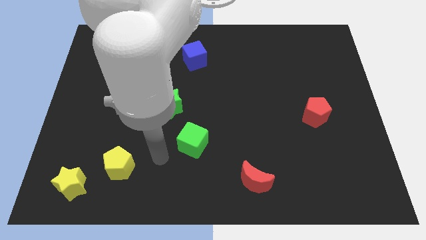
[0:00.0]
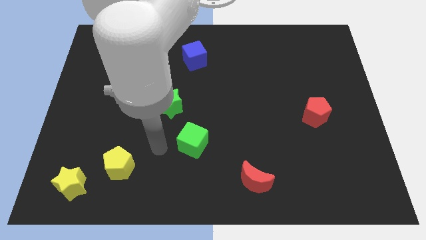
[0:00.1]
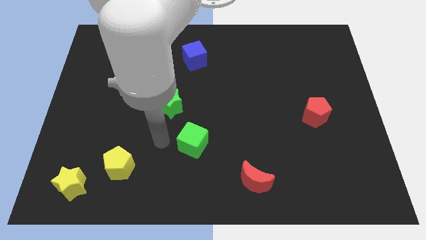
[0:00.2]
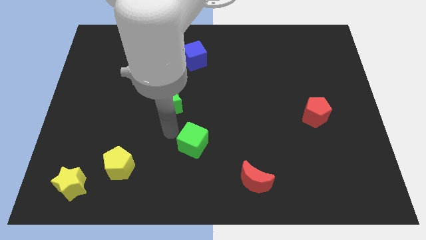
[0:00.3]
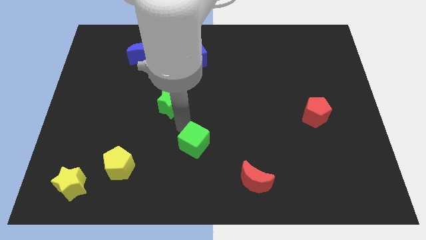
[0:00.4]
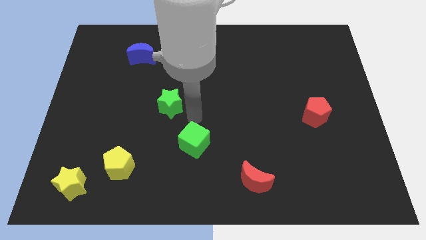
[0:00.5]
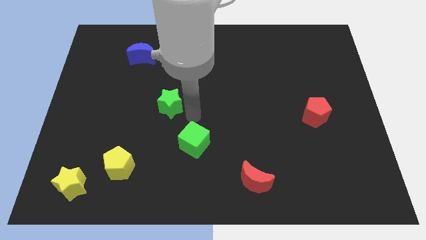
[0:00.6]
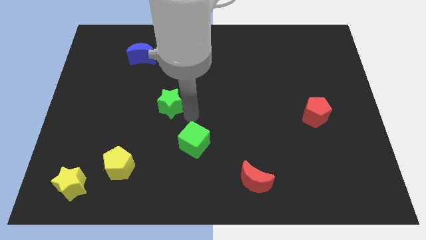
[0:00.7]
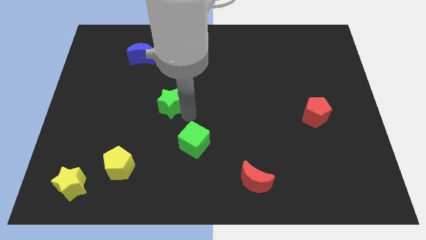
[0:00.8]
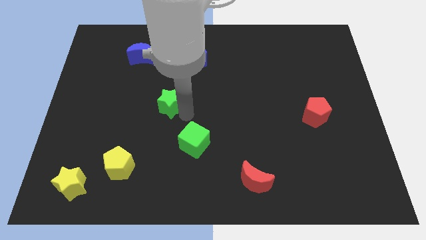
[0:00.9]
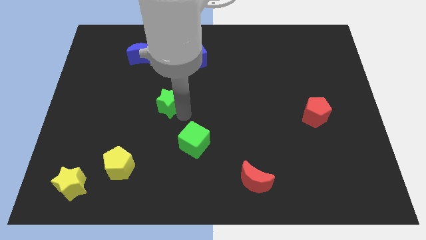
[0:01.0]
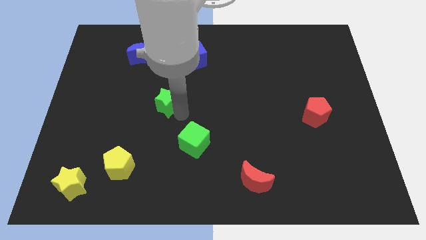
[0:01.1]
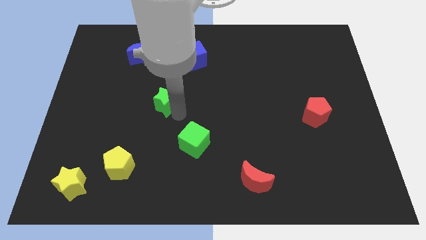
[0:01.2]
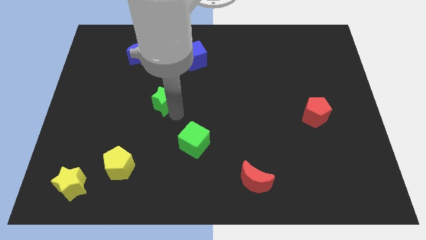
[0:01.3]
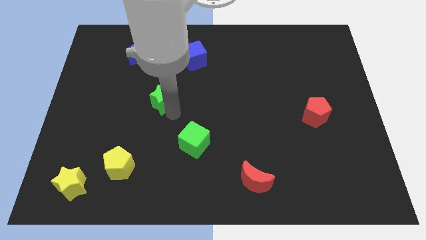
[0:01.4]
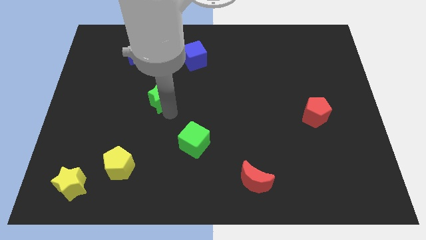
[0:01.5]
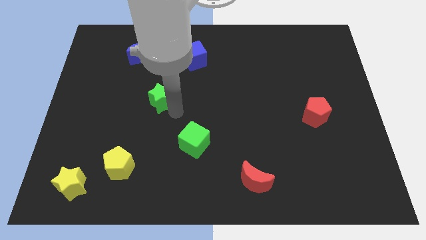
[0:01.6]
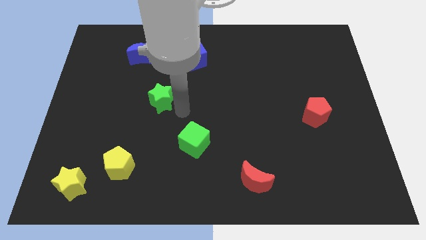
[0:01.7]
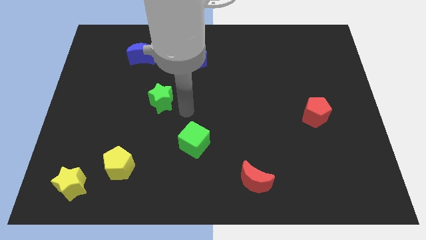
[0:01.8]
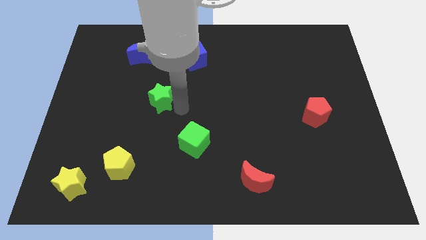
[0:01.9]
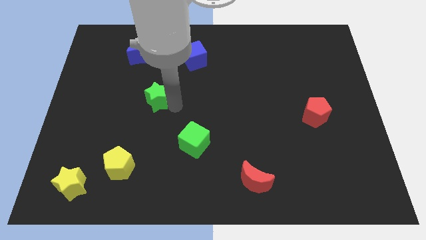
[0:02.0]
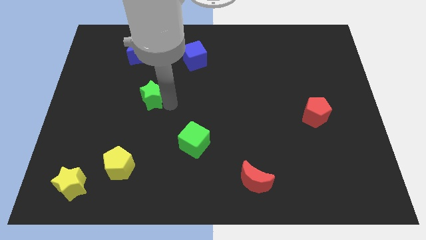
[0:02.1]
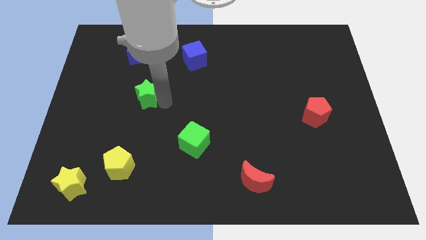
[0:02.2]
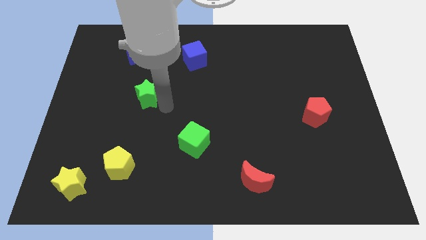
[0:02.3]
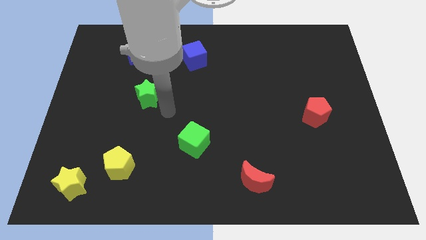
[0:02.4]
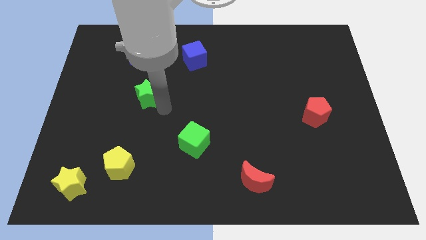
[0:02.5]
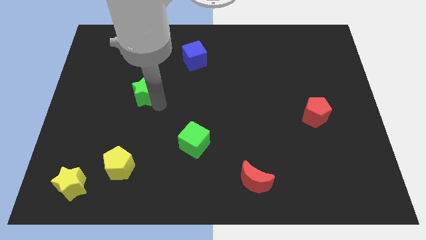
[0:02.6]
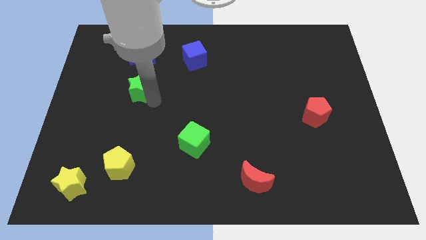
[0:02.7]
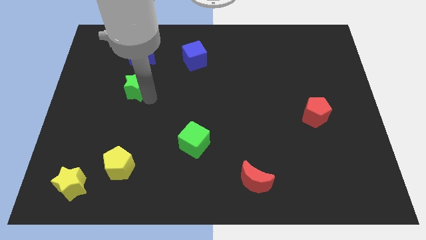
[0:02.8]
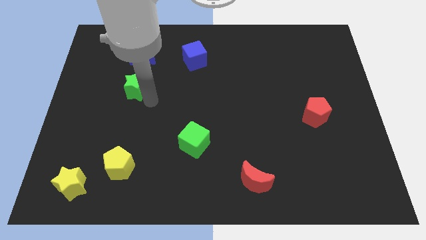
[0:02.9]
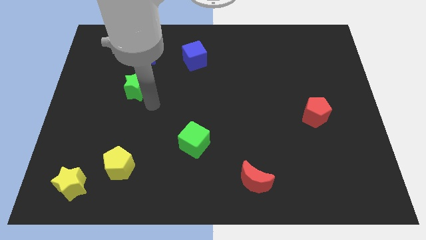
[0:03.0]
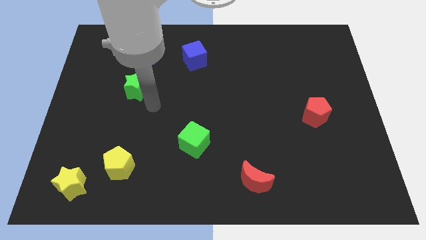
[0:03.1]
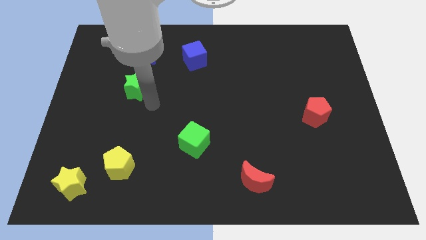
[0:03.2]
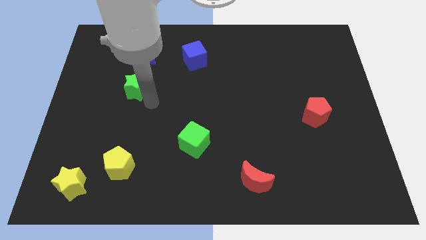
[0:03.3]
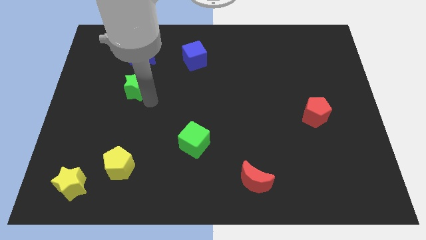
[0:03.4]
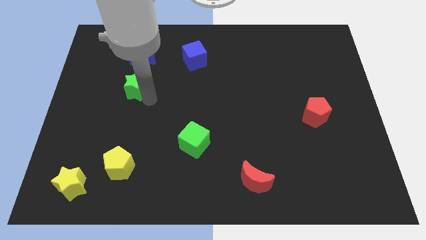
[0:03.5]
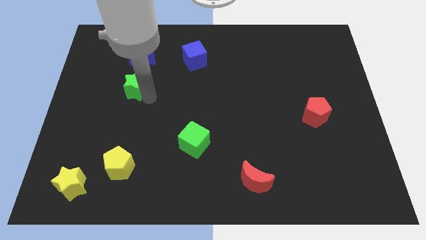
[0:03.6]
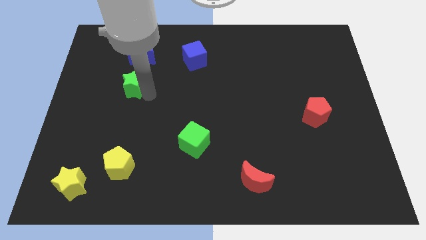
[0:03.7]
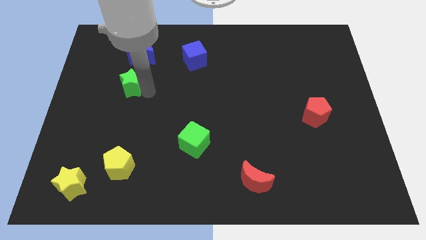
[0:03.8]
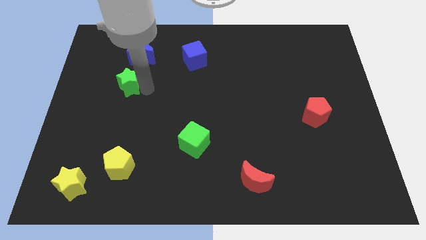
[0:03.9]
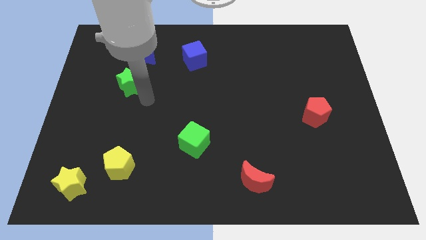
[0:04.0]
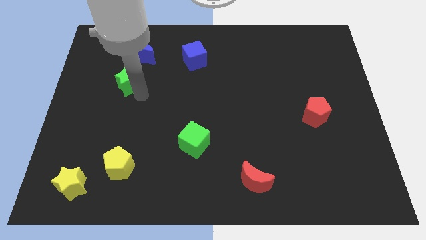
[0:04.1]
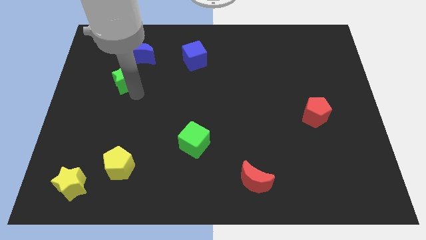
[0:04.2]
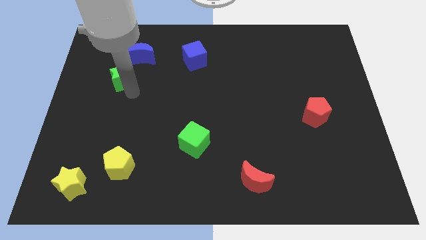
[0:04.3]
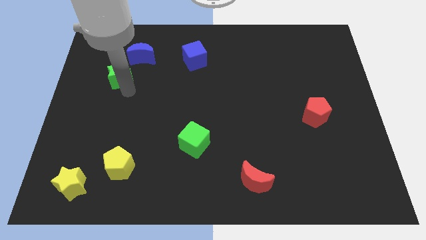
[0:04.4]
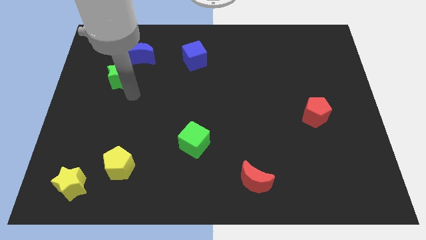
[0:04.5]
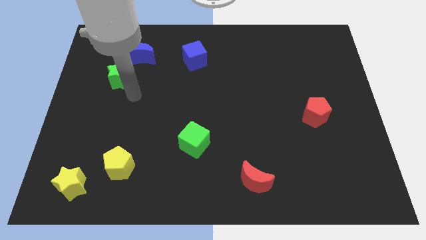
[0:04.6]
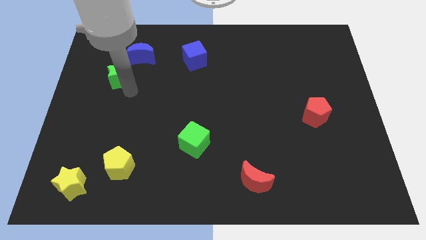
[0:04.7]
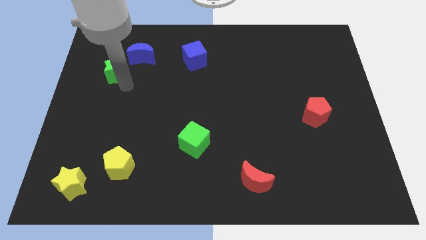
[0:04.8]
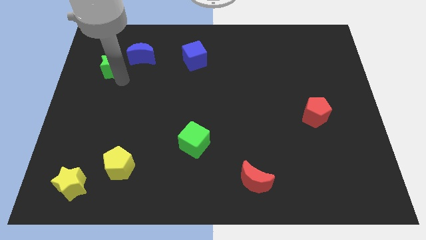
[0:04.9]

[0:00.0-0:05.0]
slide the green star to the left side of the blue moon

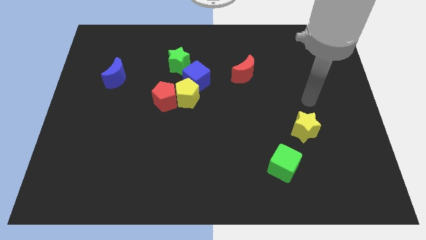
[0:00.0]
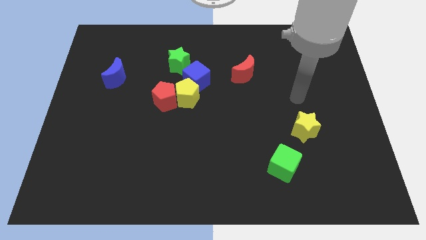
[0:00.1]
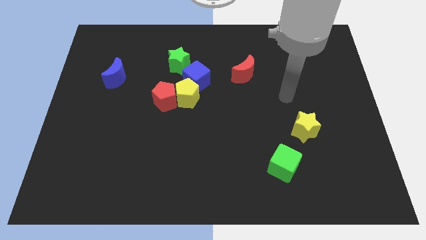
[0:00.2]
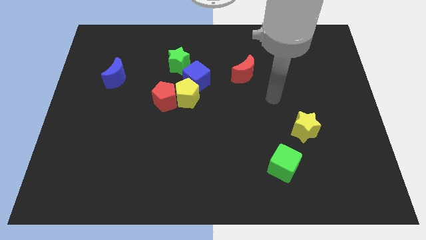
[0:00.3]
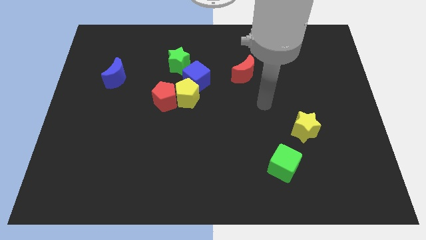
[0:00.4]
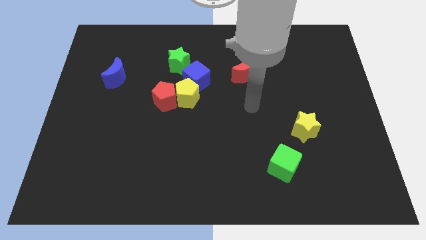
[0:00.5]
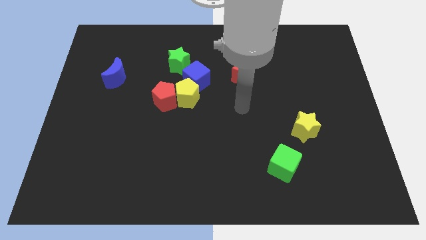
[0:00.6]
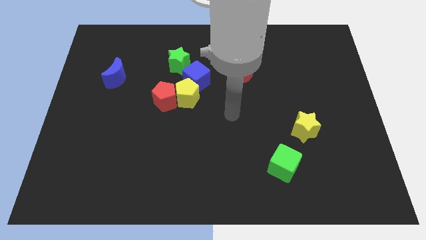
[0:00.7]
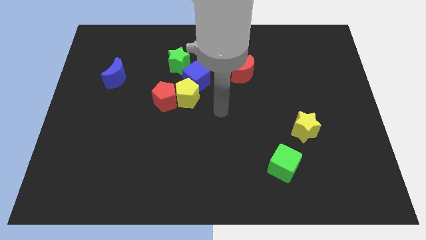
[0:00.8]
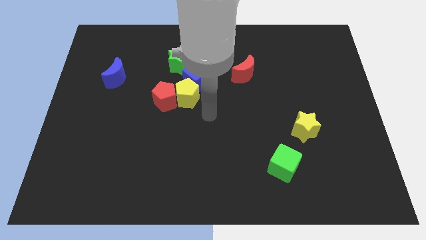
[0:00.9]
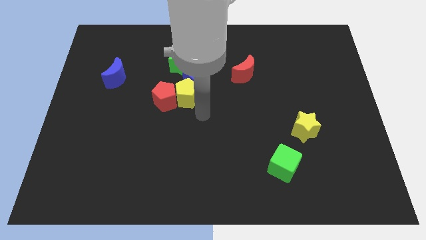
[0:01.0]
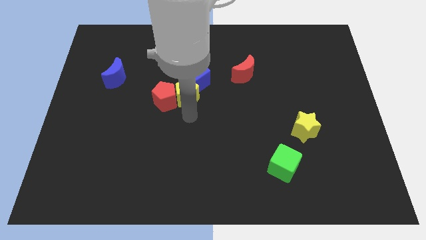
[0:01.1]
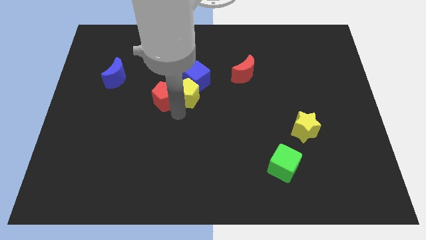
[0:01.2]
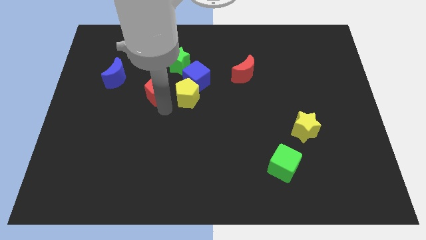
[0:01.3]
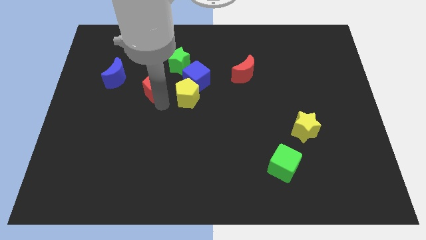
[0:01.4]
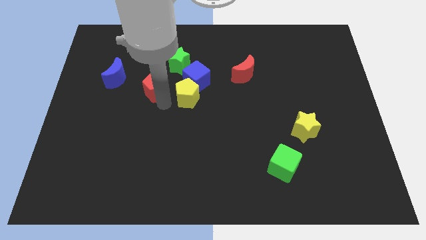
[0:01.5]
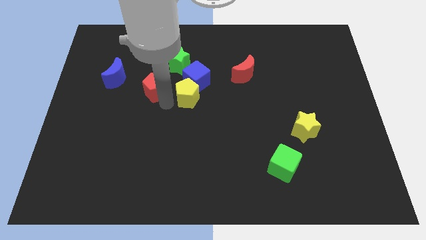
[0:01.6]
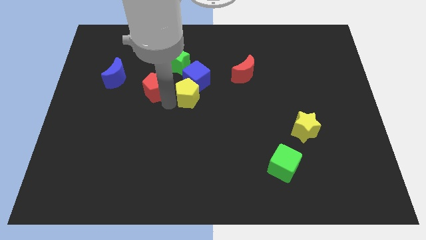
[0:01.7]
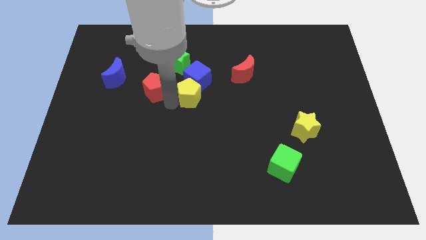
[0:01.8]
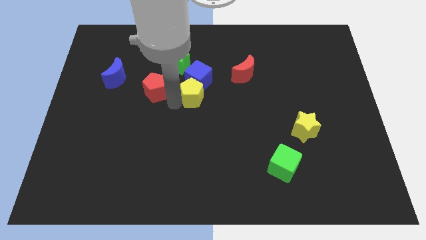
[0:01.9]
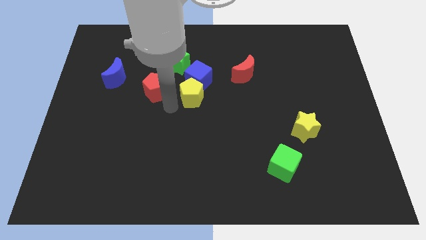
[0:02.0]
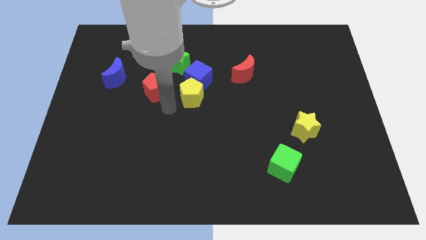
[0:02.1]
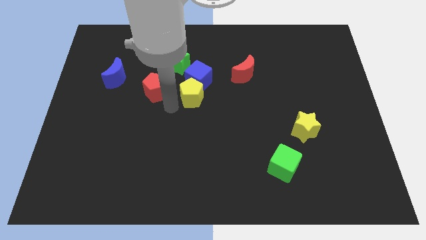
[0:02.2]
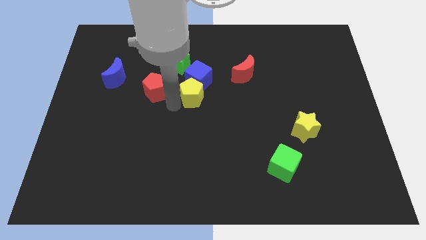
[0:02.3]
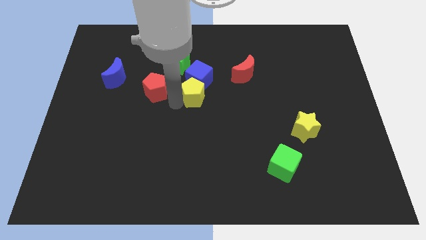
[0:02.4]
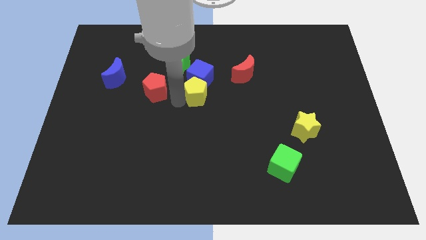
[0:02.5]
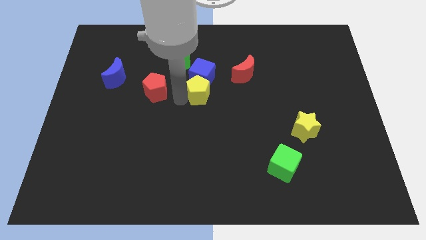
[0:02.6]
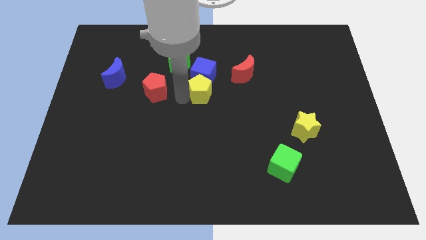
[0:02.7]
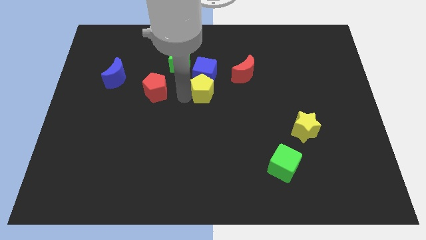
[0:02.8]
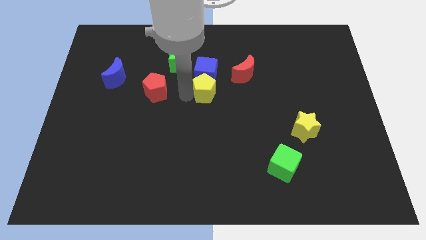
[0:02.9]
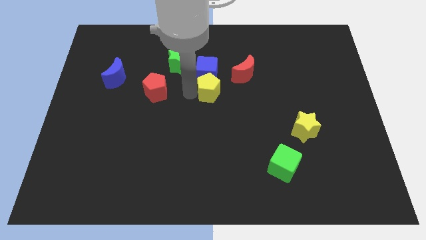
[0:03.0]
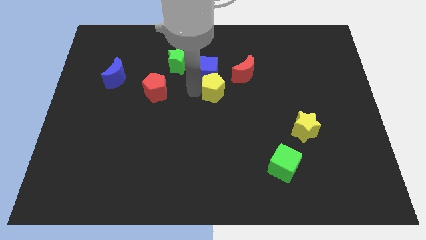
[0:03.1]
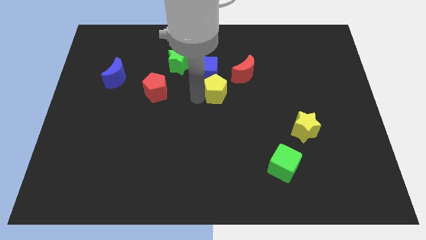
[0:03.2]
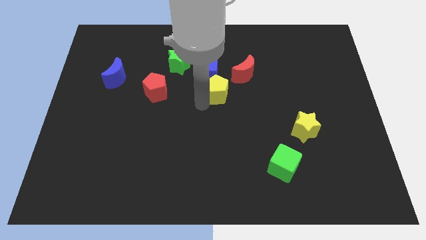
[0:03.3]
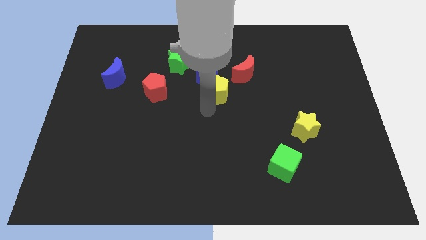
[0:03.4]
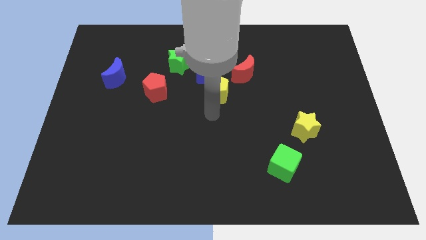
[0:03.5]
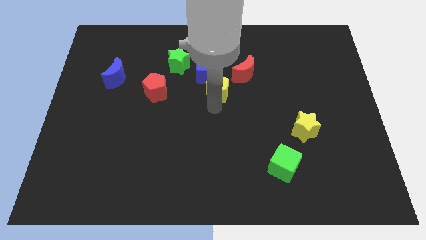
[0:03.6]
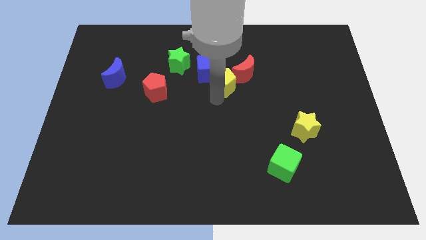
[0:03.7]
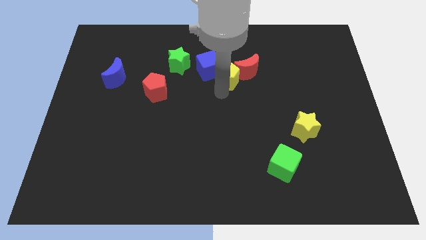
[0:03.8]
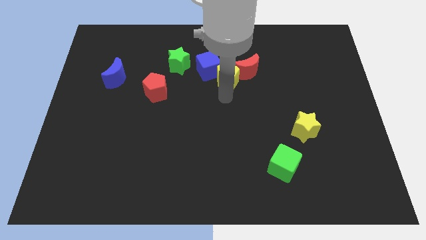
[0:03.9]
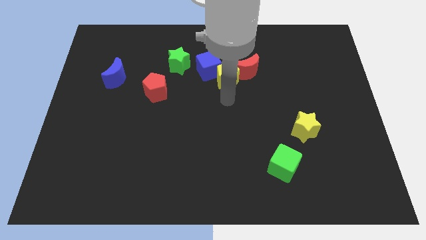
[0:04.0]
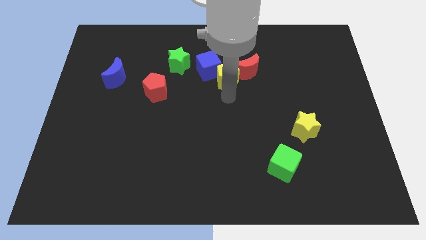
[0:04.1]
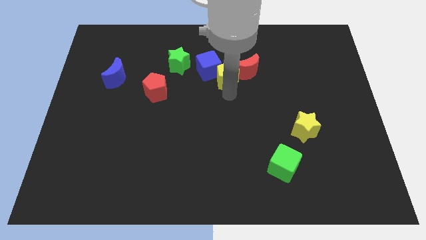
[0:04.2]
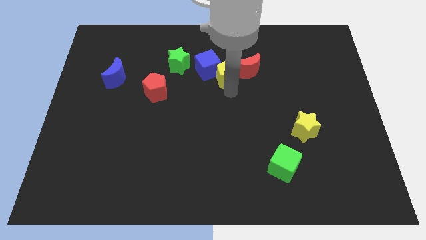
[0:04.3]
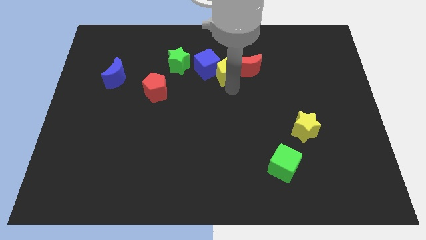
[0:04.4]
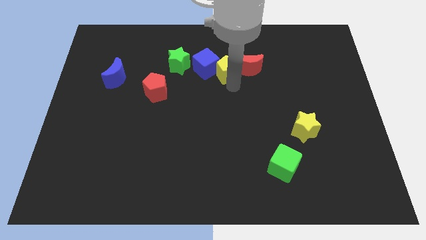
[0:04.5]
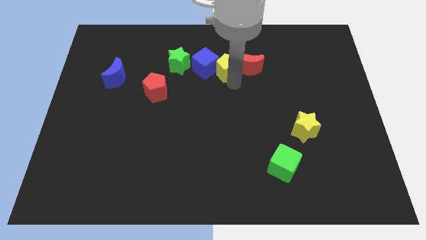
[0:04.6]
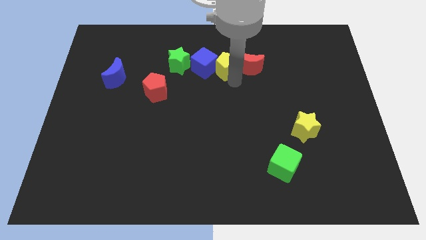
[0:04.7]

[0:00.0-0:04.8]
put the yellow pentagon diagonally up and to the right of the blue cube
